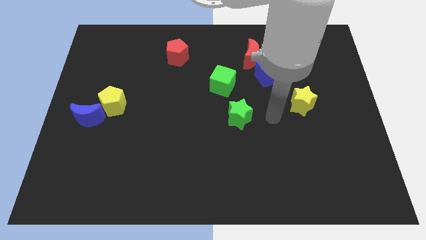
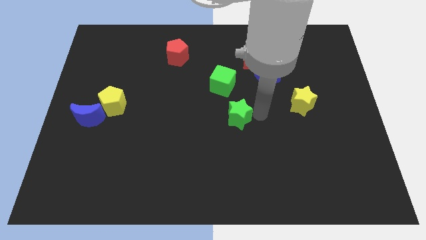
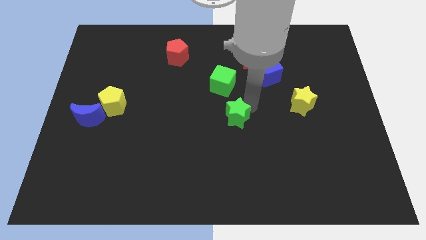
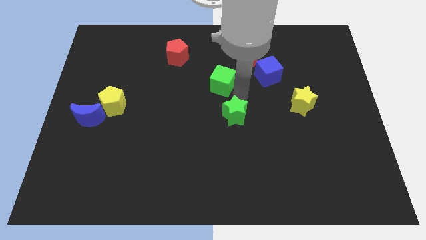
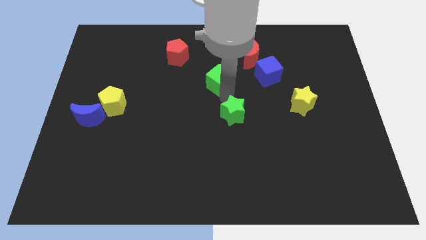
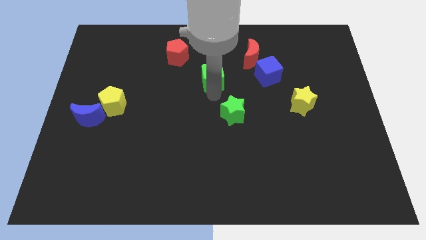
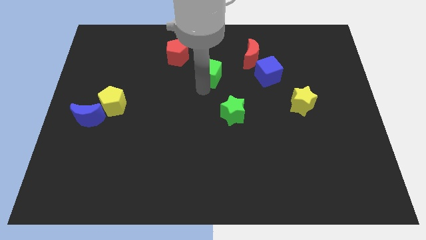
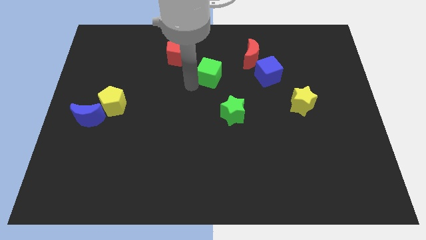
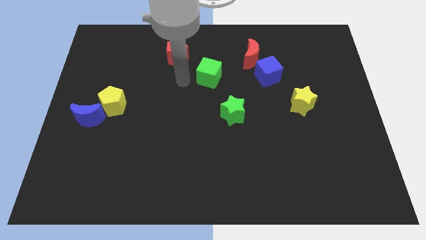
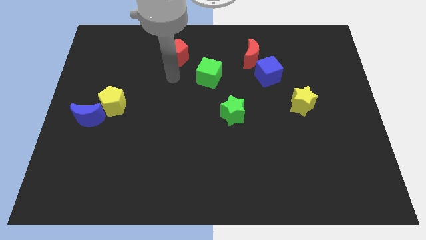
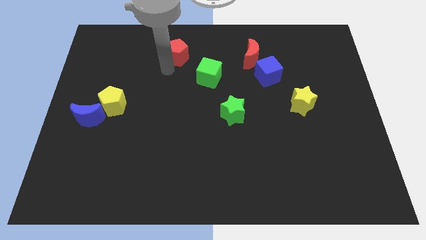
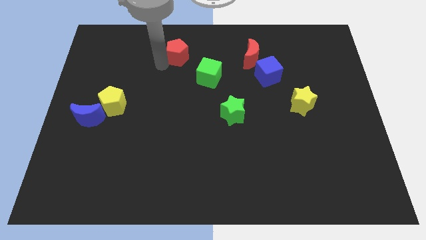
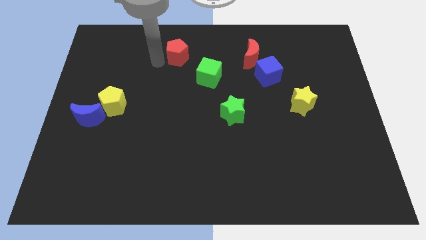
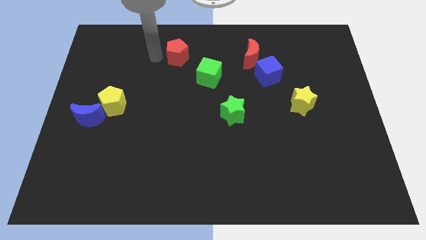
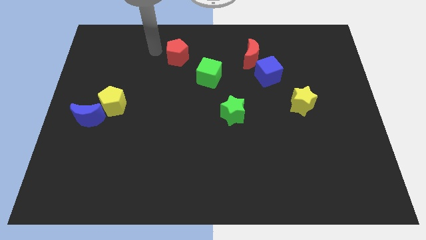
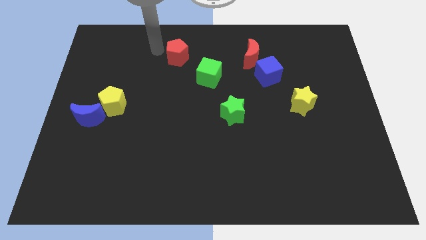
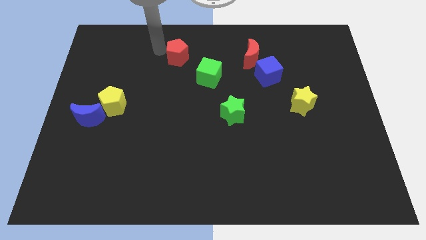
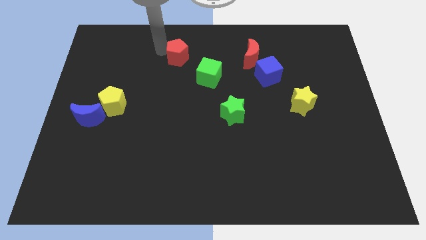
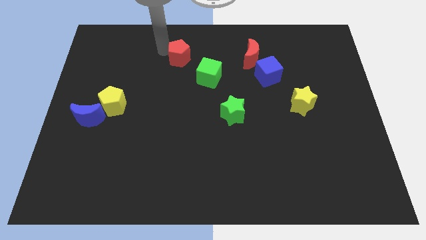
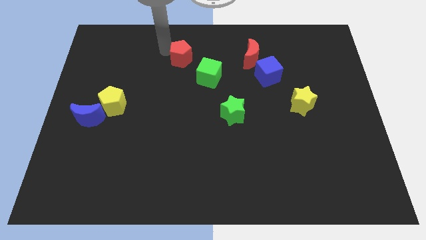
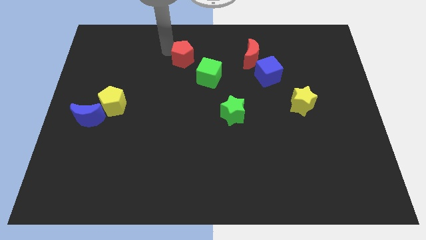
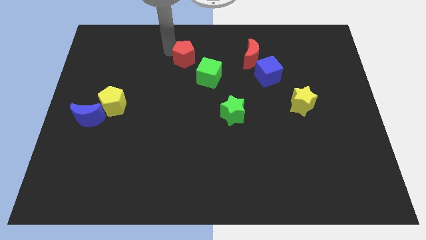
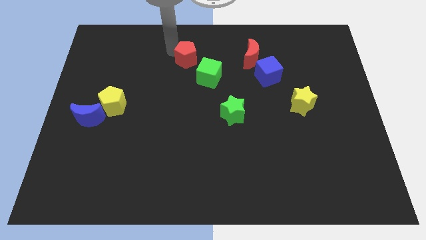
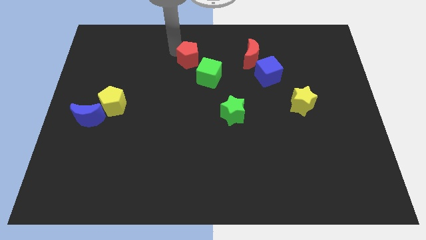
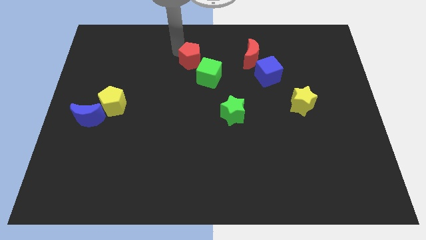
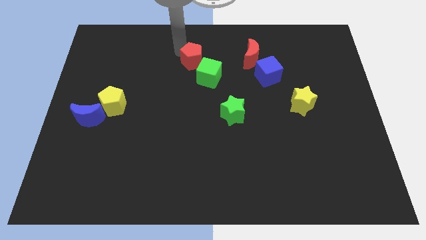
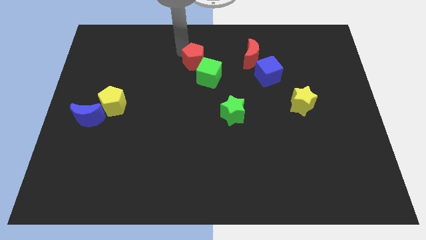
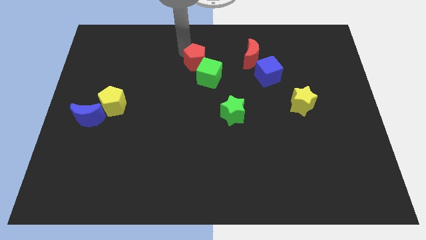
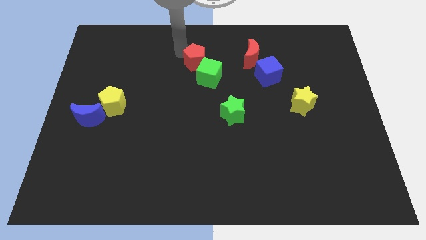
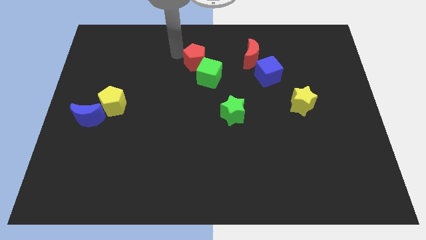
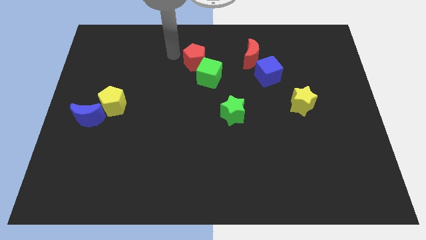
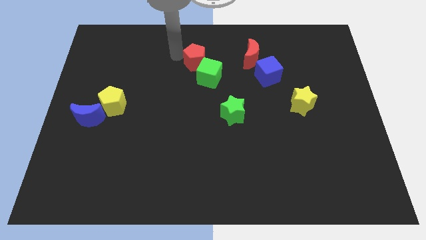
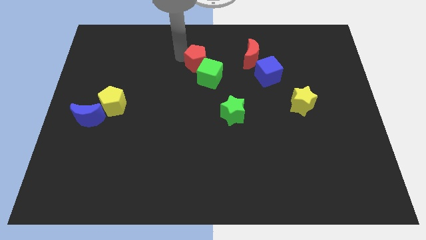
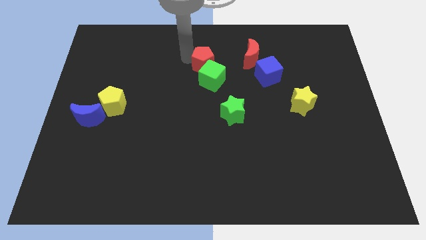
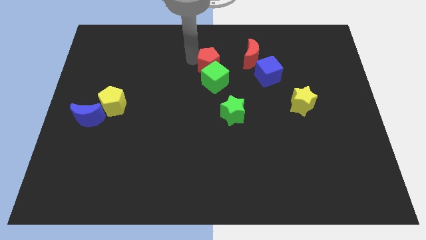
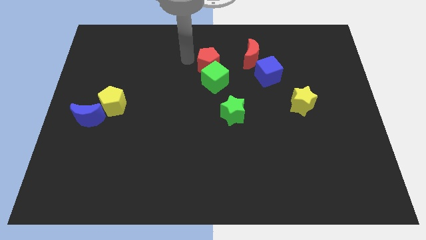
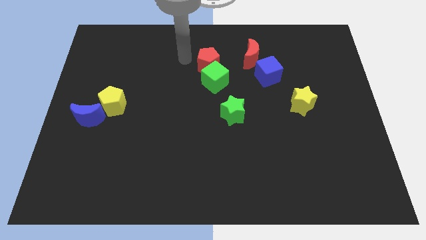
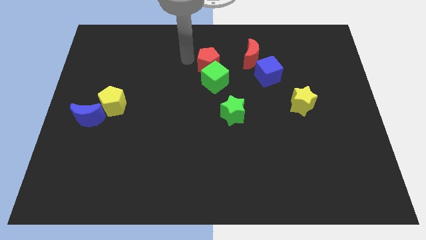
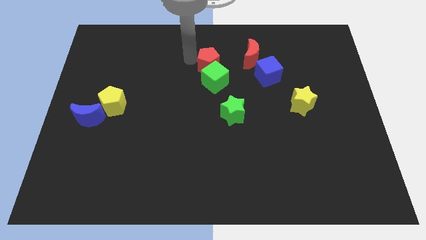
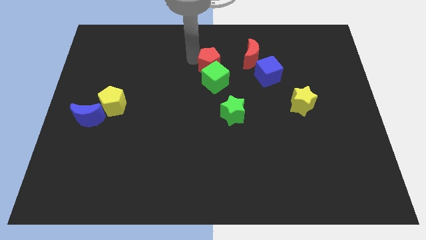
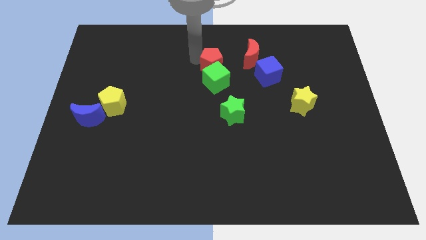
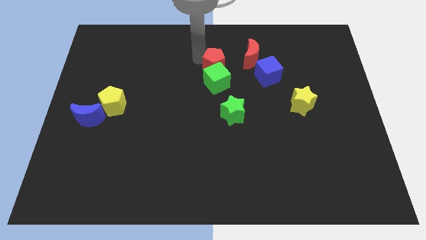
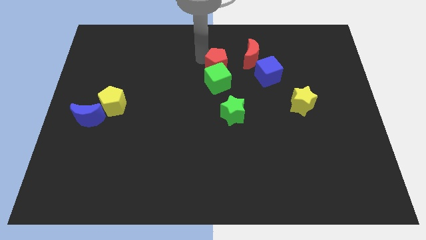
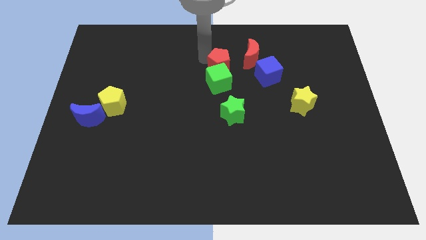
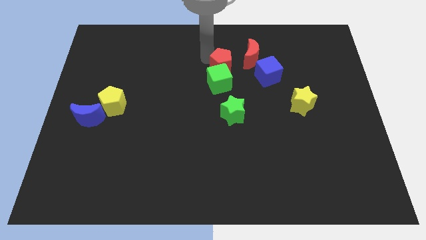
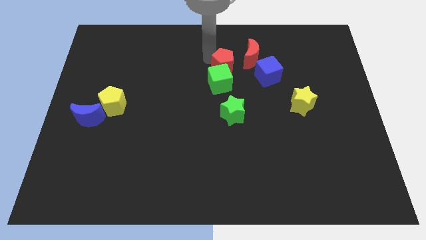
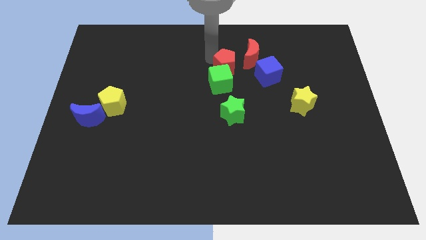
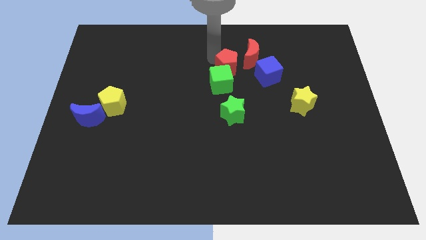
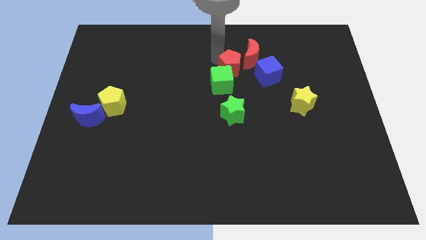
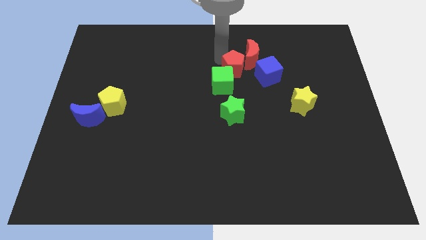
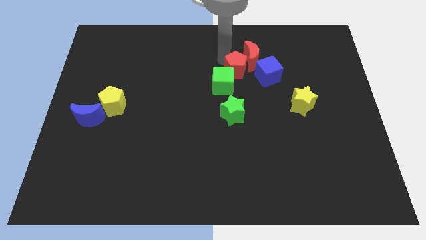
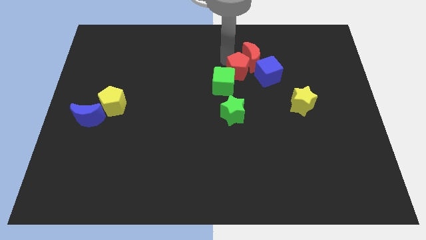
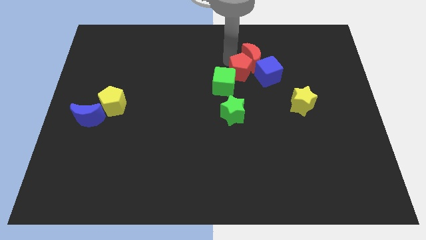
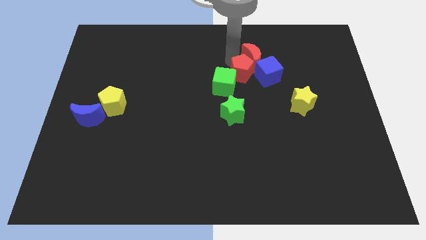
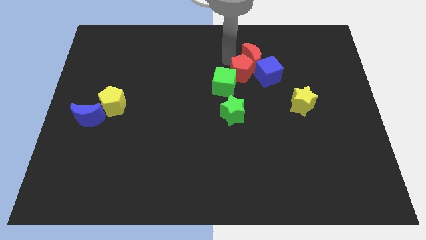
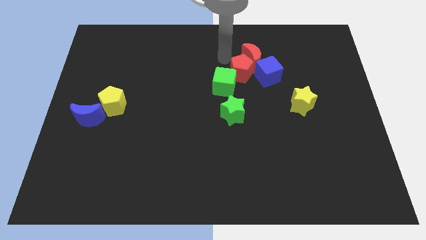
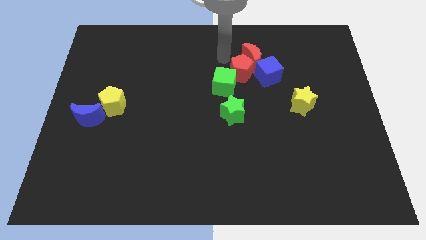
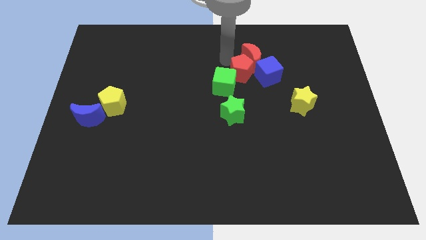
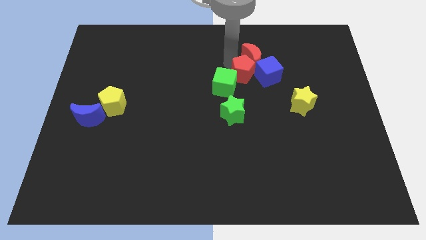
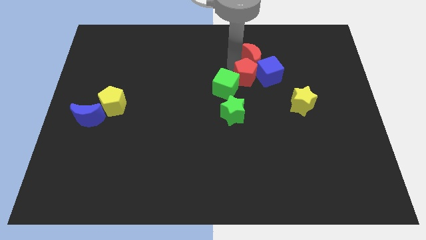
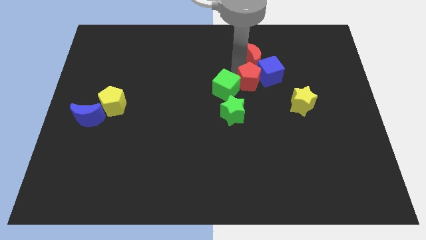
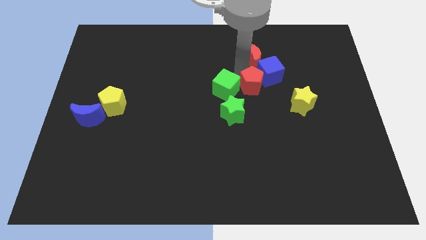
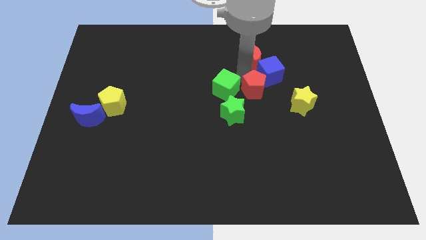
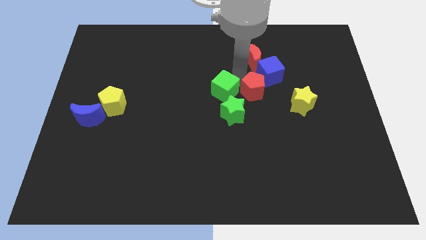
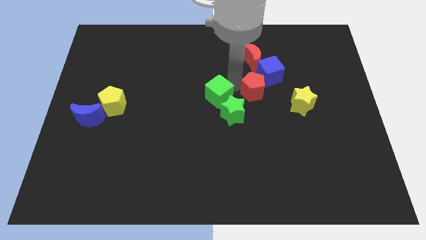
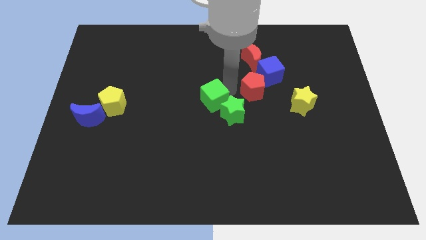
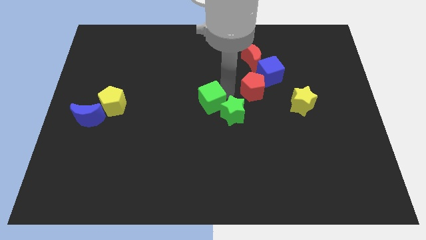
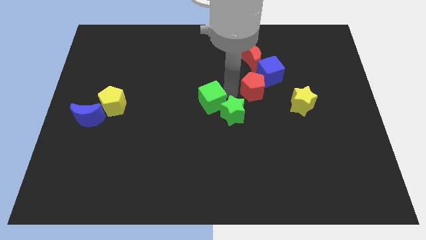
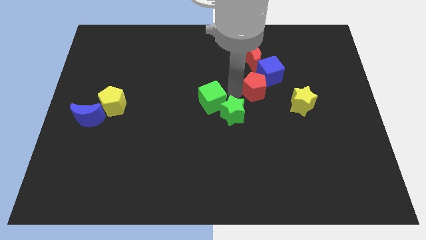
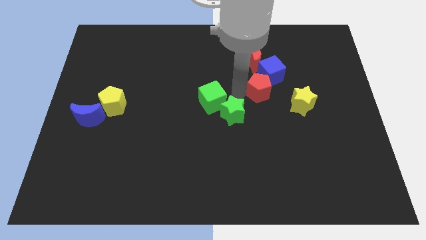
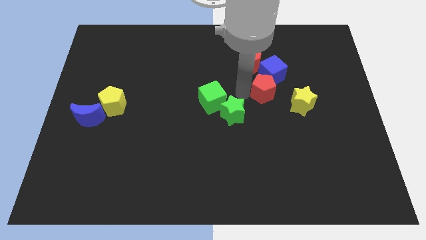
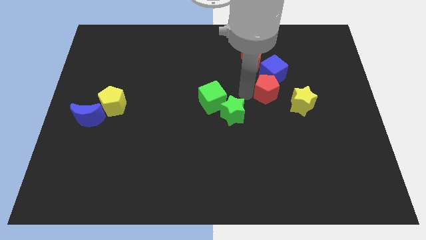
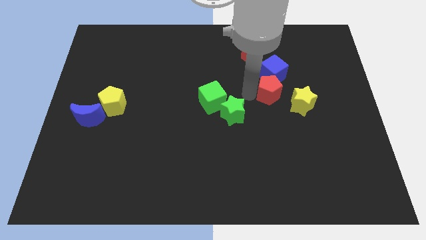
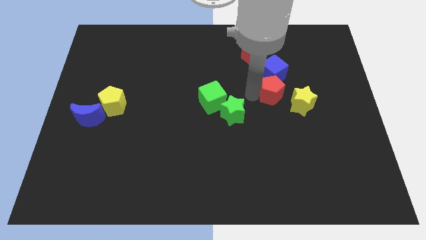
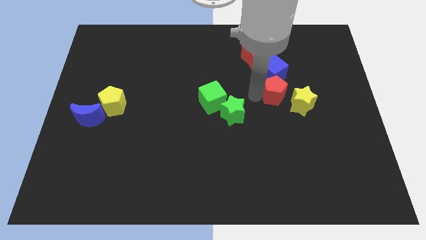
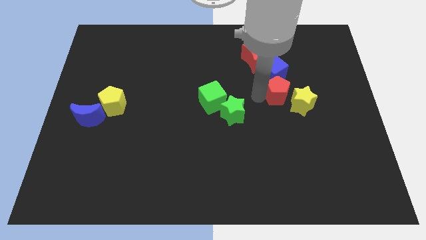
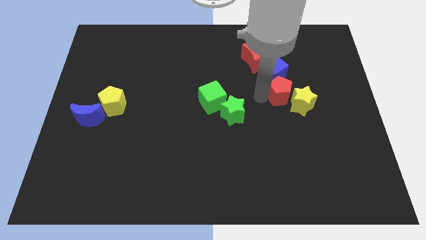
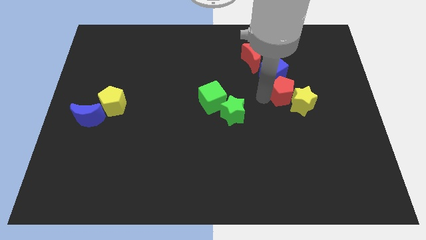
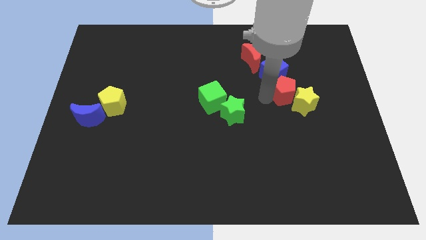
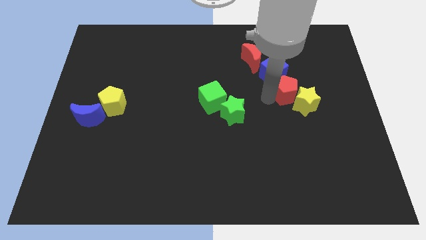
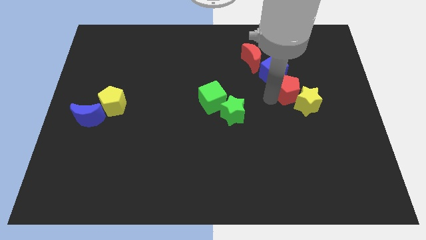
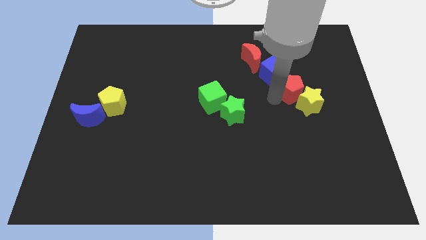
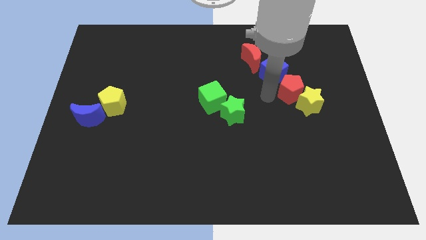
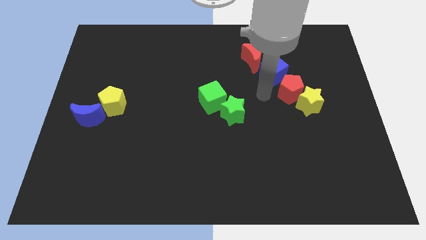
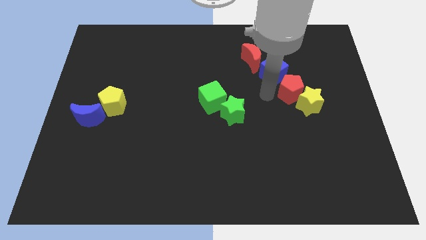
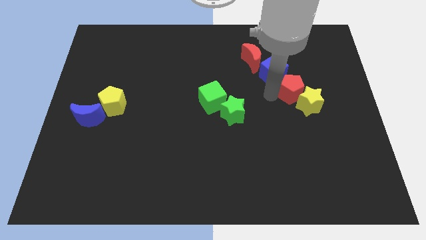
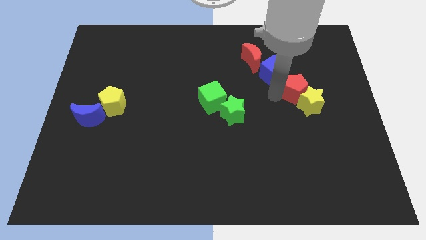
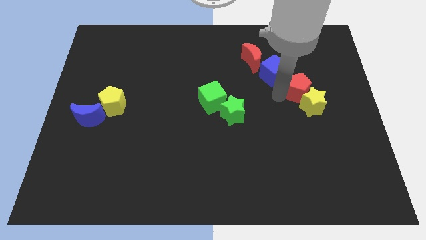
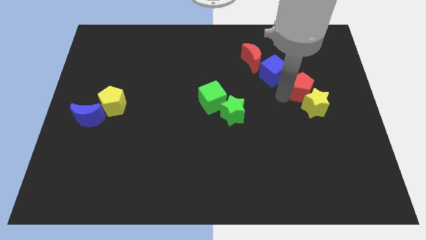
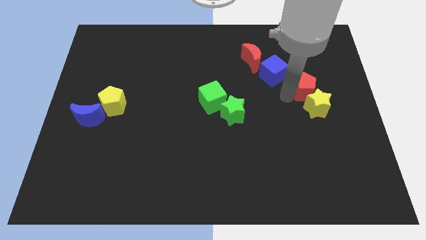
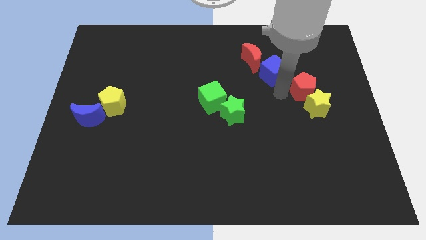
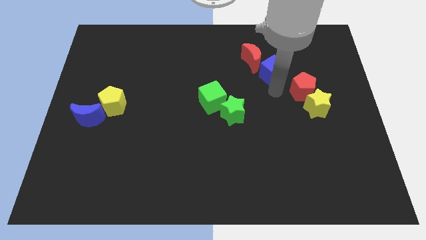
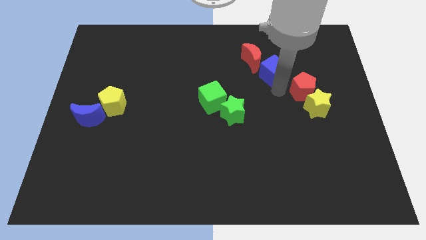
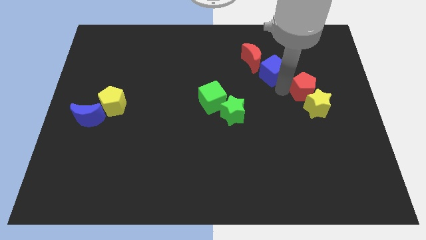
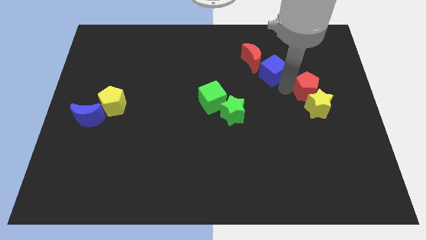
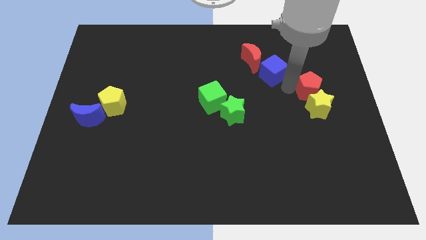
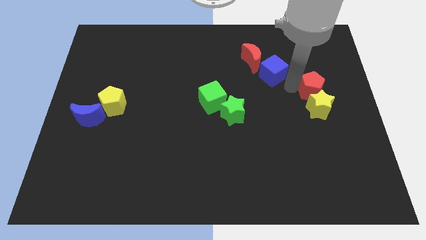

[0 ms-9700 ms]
slide the red pentagon to the top right side of the yellow star
